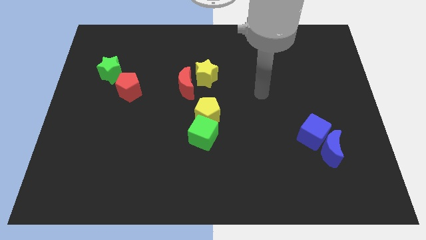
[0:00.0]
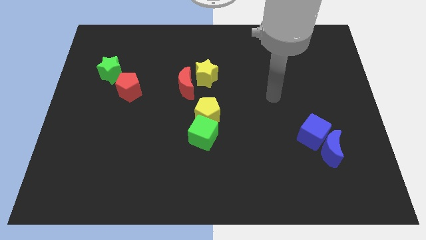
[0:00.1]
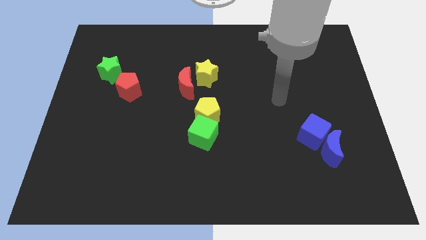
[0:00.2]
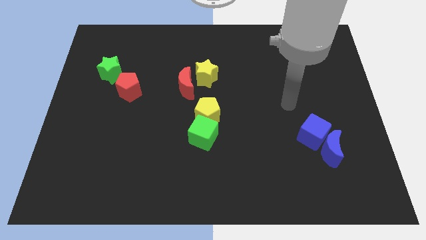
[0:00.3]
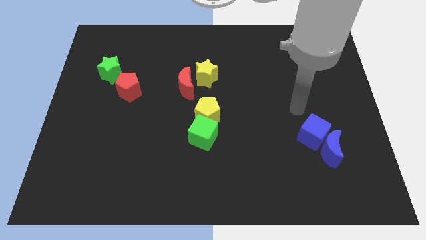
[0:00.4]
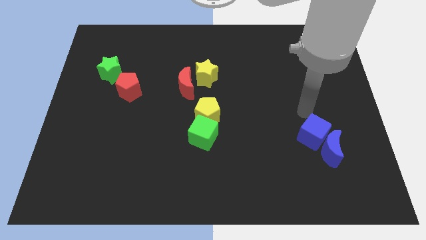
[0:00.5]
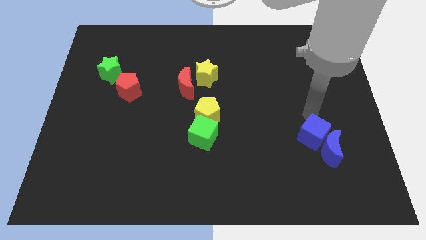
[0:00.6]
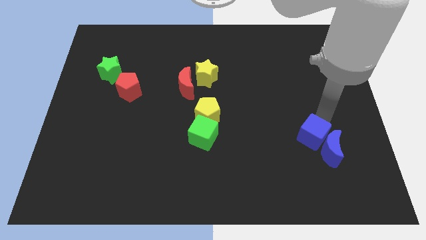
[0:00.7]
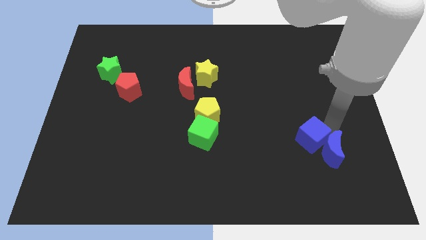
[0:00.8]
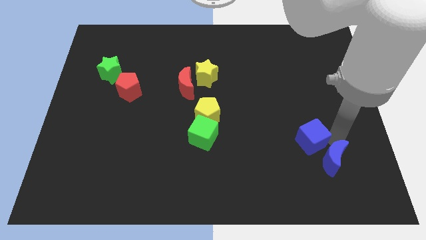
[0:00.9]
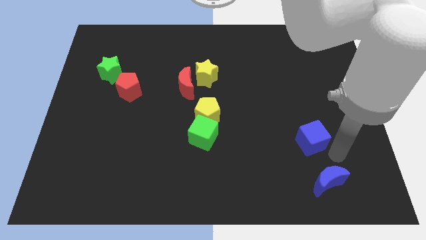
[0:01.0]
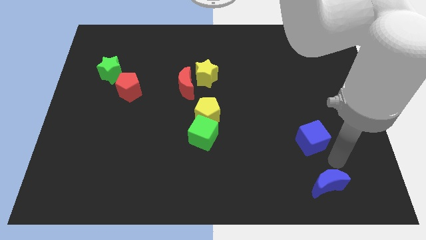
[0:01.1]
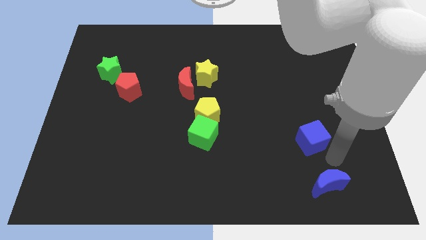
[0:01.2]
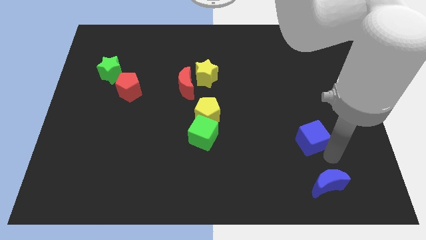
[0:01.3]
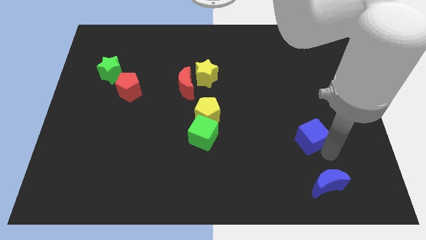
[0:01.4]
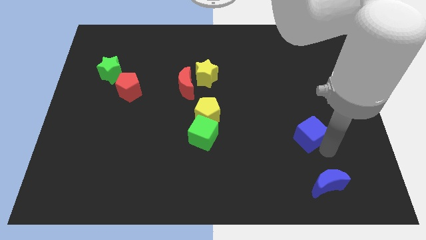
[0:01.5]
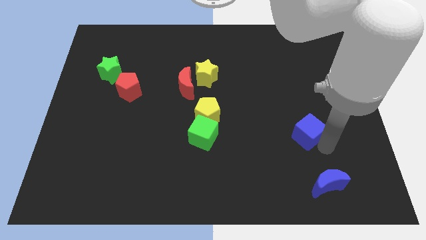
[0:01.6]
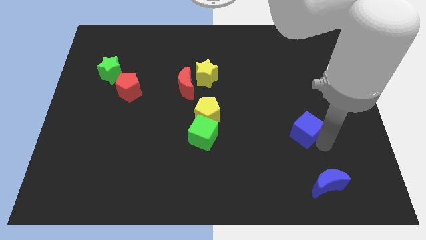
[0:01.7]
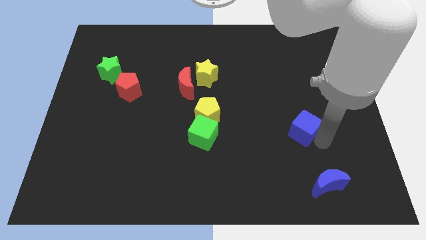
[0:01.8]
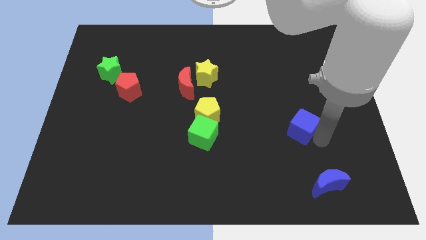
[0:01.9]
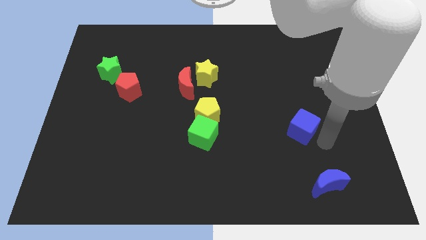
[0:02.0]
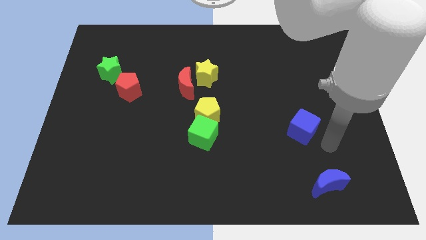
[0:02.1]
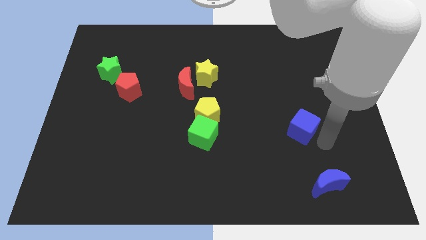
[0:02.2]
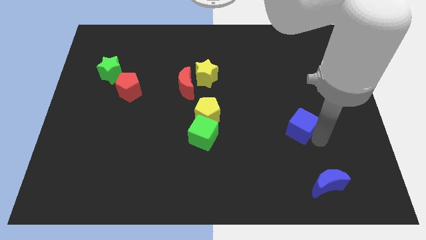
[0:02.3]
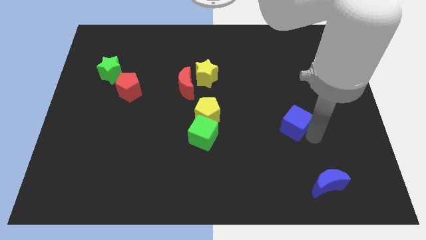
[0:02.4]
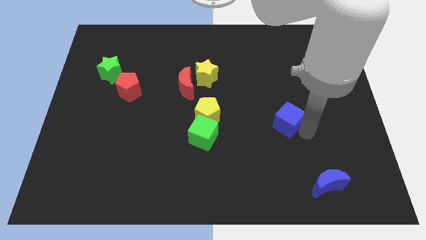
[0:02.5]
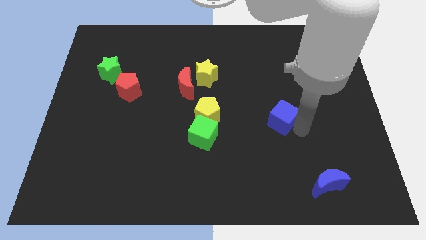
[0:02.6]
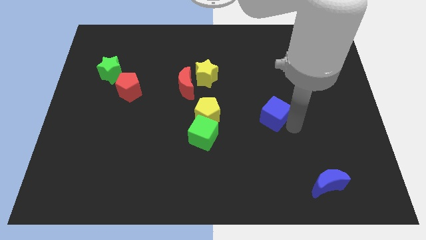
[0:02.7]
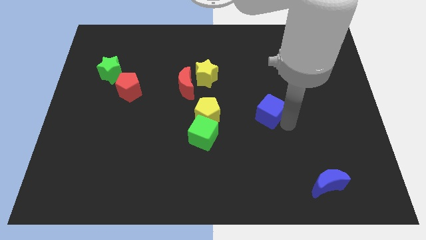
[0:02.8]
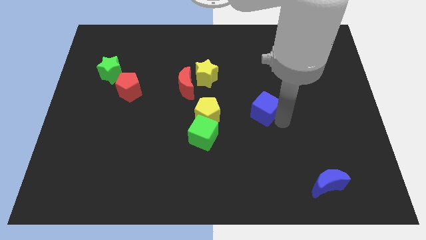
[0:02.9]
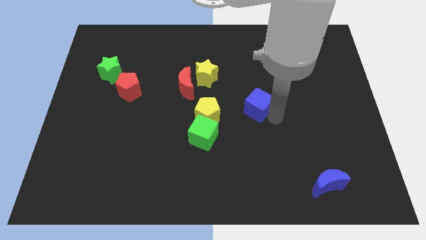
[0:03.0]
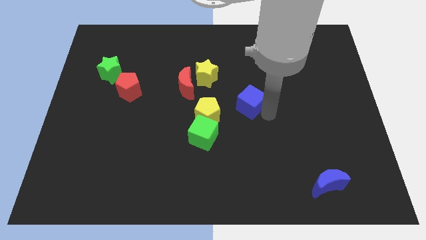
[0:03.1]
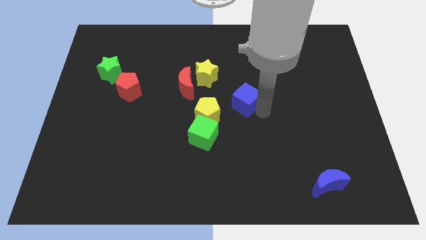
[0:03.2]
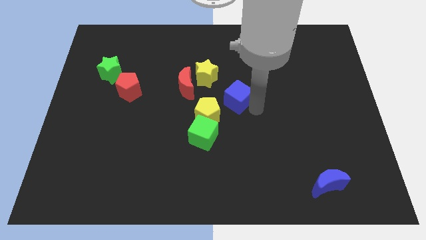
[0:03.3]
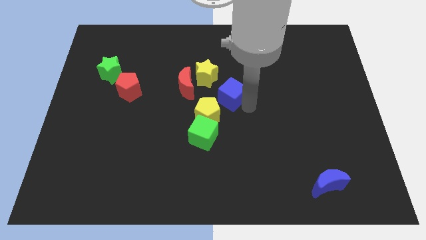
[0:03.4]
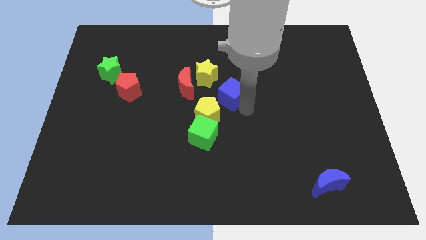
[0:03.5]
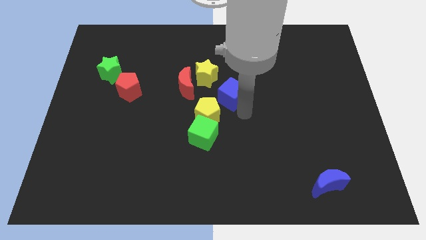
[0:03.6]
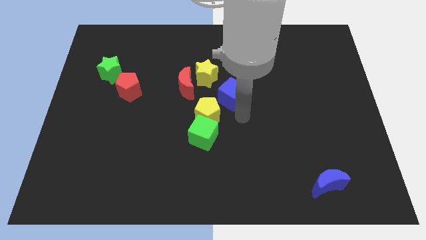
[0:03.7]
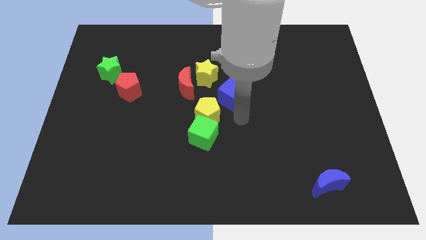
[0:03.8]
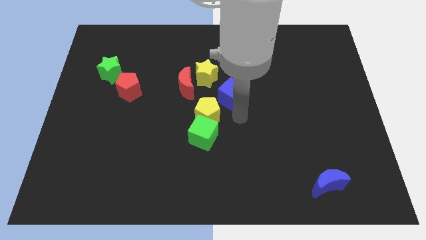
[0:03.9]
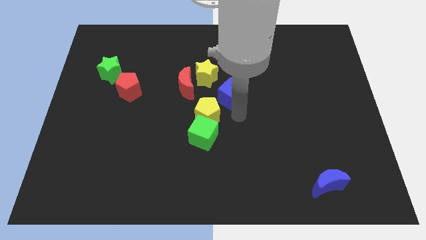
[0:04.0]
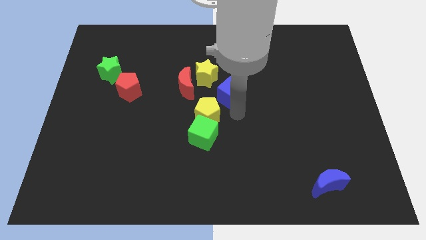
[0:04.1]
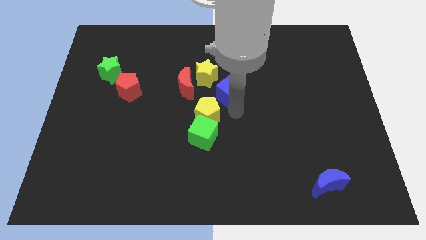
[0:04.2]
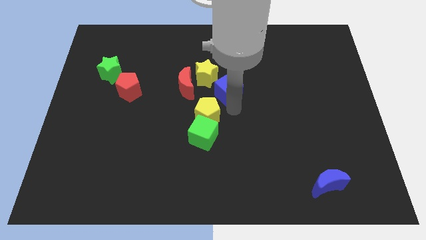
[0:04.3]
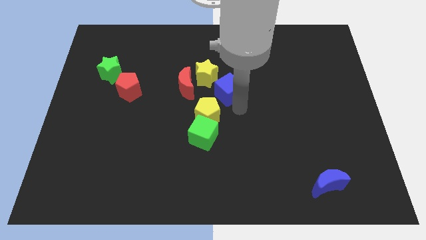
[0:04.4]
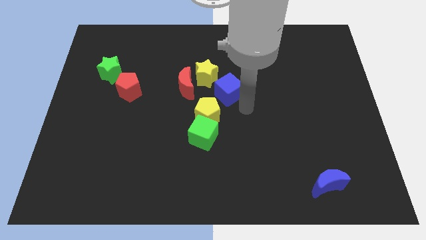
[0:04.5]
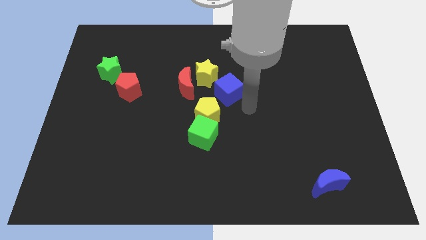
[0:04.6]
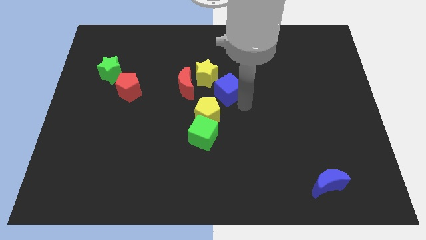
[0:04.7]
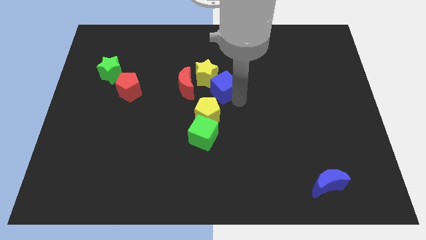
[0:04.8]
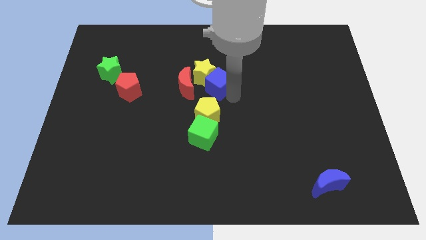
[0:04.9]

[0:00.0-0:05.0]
slide the blue cube to the yellow star

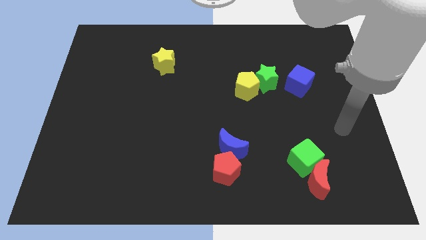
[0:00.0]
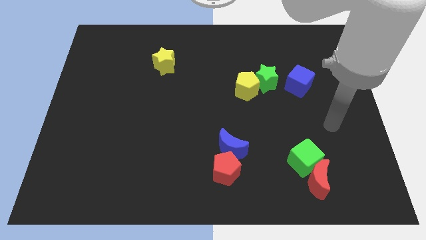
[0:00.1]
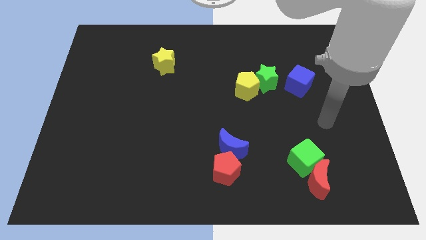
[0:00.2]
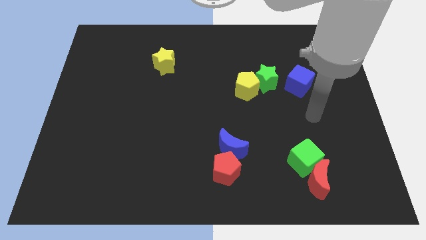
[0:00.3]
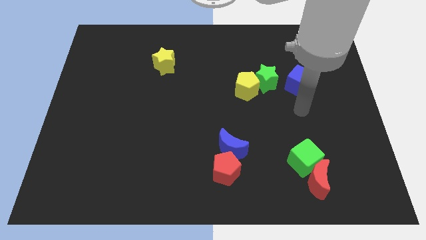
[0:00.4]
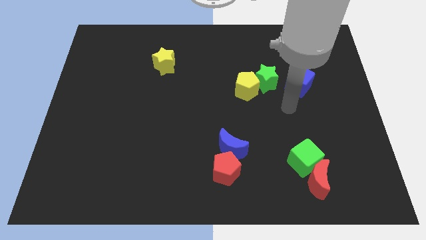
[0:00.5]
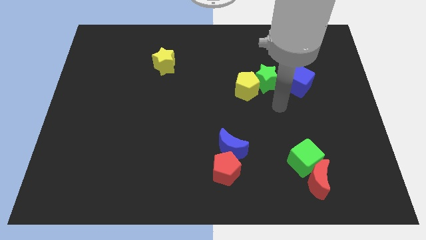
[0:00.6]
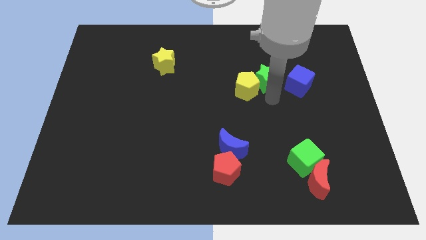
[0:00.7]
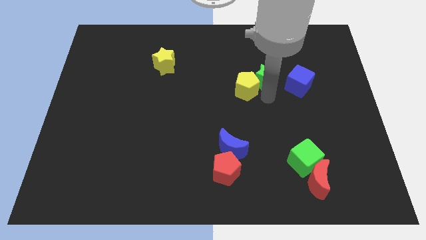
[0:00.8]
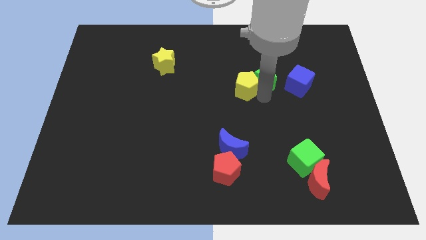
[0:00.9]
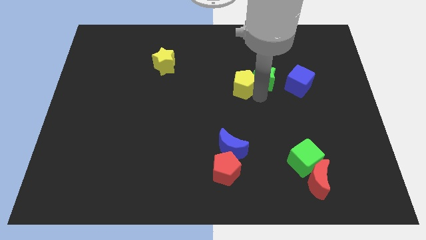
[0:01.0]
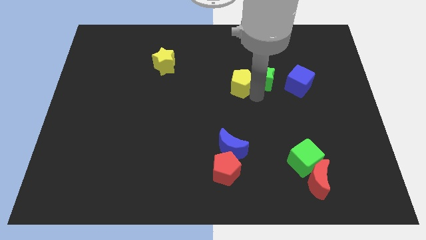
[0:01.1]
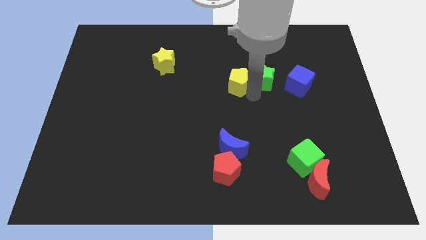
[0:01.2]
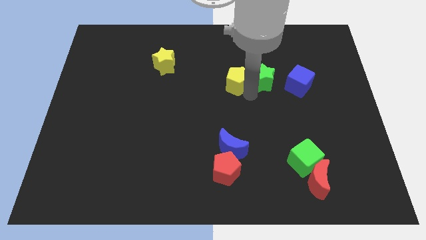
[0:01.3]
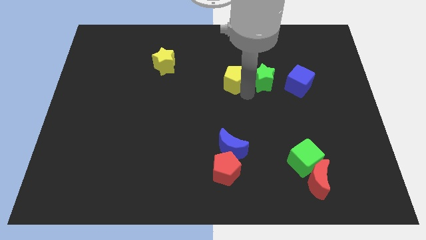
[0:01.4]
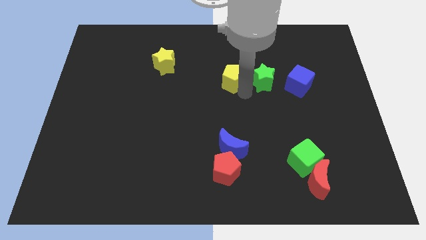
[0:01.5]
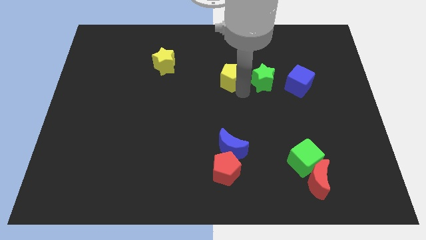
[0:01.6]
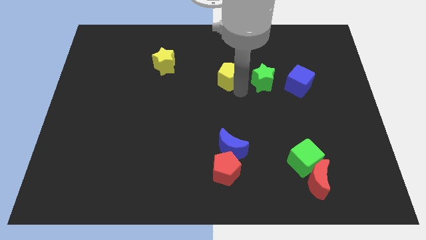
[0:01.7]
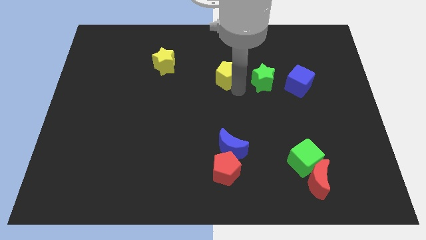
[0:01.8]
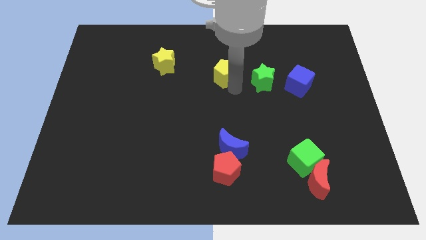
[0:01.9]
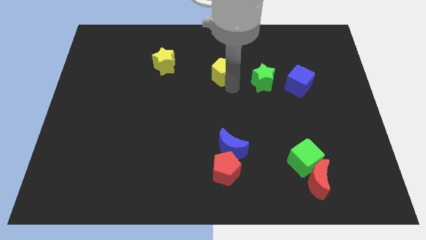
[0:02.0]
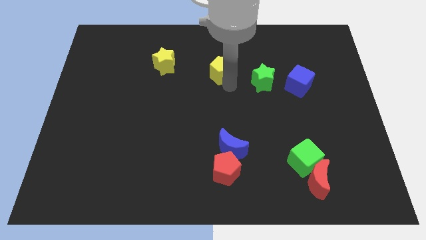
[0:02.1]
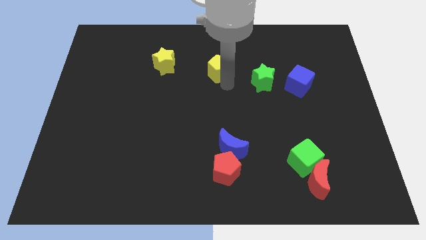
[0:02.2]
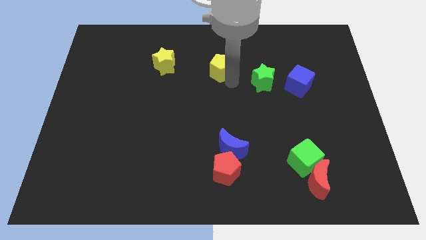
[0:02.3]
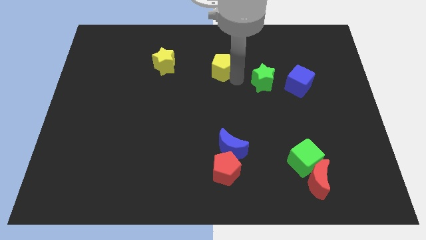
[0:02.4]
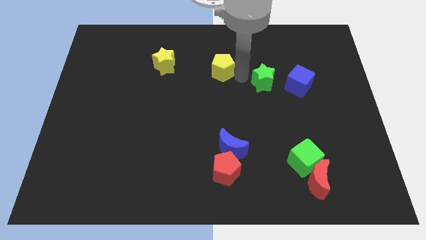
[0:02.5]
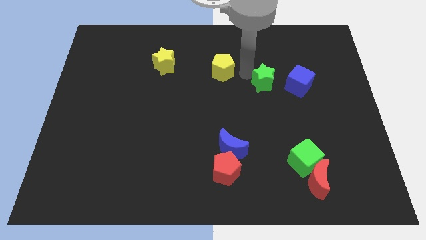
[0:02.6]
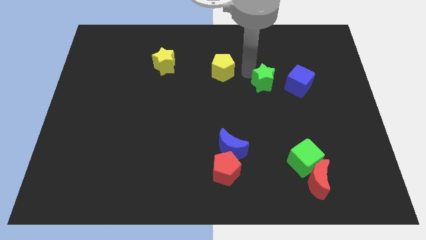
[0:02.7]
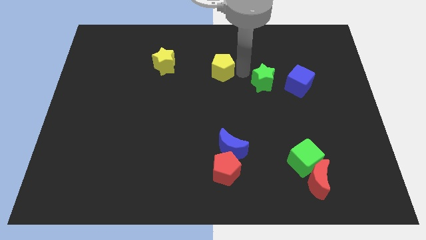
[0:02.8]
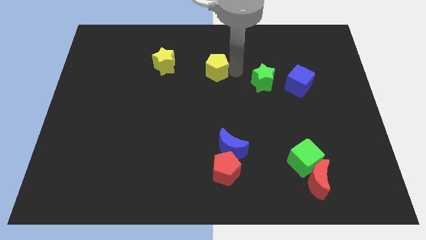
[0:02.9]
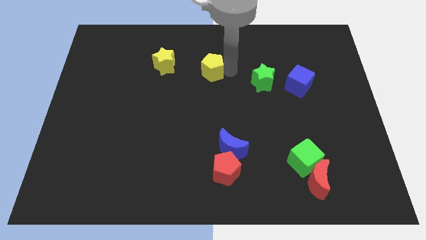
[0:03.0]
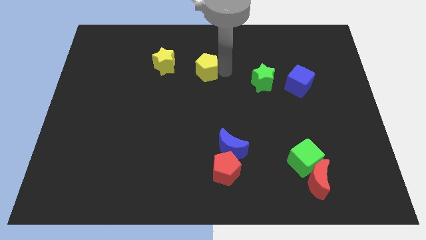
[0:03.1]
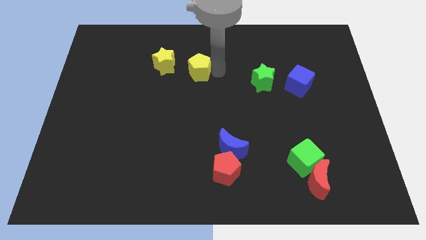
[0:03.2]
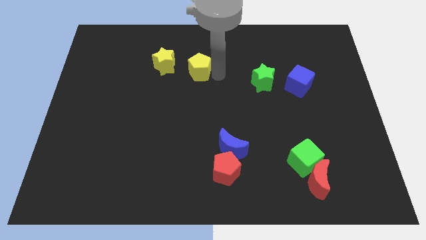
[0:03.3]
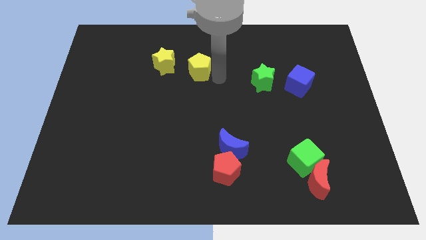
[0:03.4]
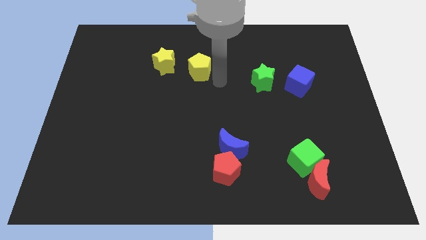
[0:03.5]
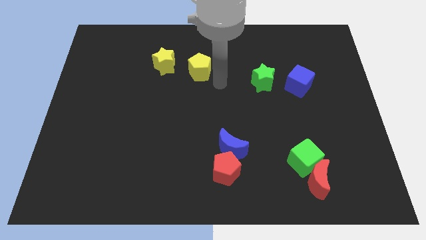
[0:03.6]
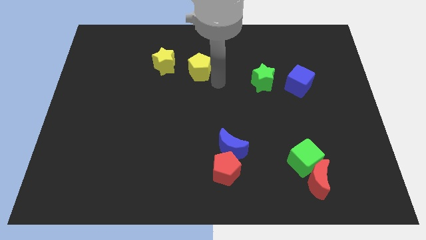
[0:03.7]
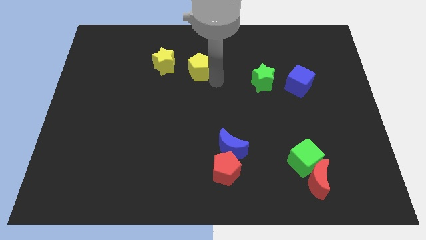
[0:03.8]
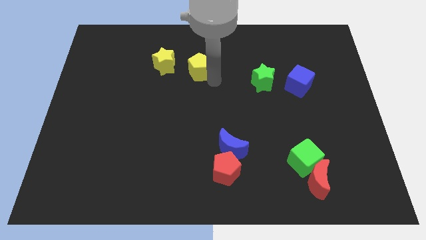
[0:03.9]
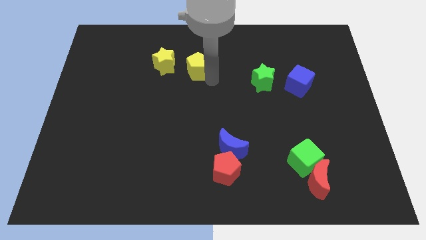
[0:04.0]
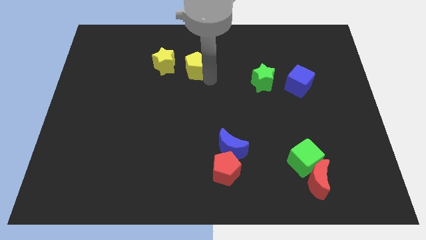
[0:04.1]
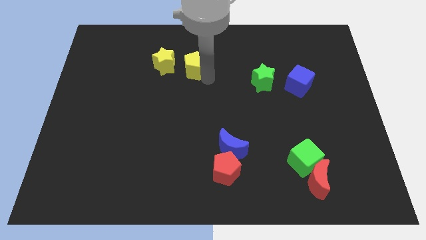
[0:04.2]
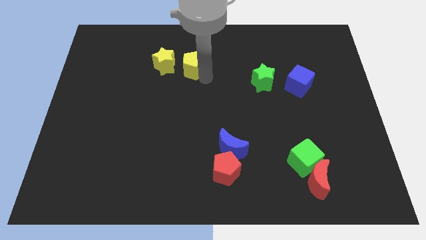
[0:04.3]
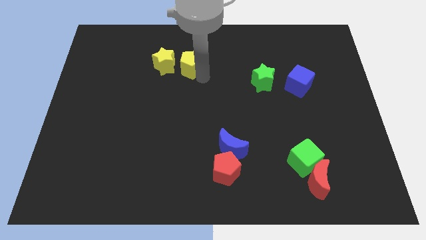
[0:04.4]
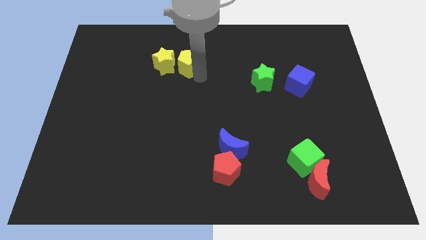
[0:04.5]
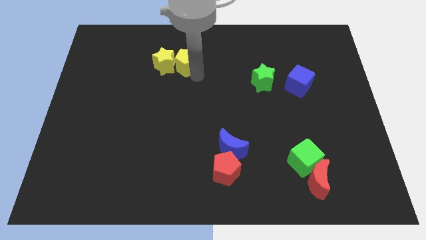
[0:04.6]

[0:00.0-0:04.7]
push the yellow pentagon to the yellow star
